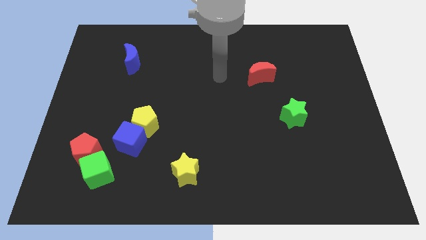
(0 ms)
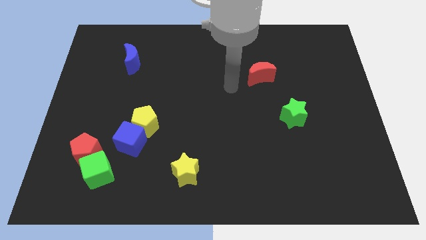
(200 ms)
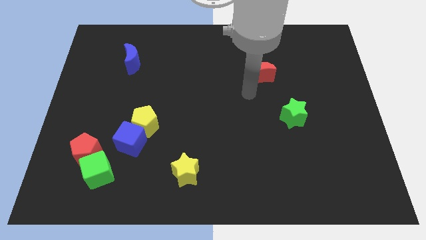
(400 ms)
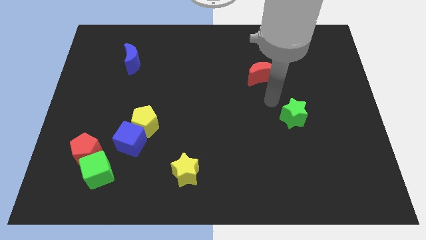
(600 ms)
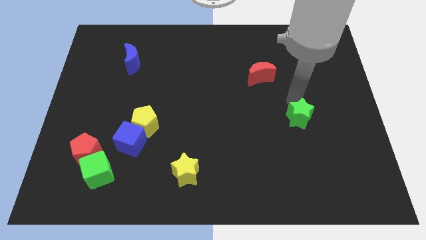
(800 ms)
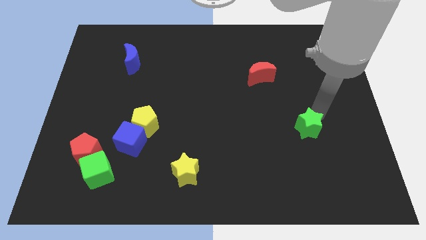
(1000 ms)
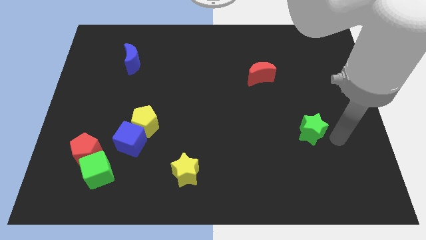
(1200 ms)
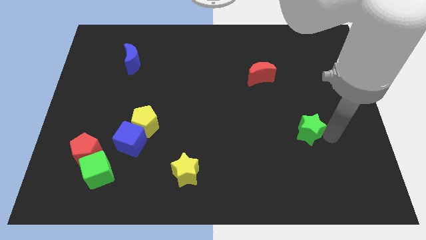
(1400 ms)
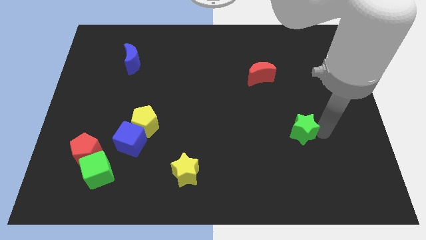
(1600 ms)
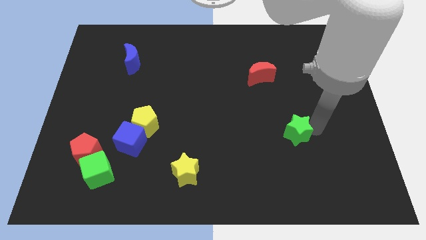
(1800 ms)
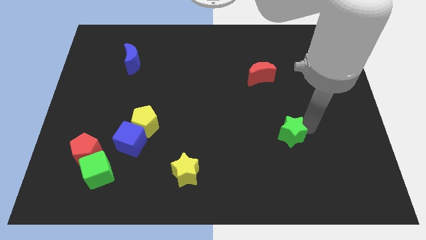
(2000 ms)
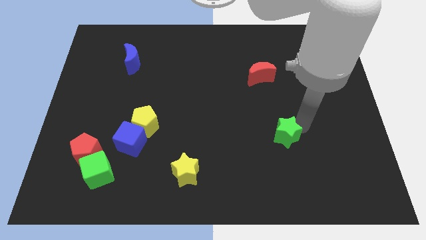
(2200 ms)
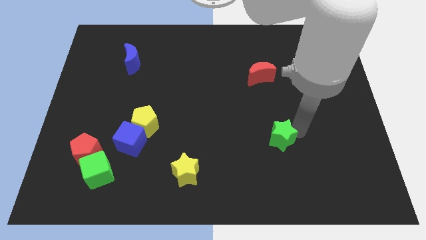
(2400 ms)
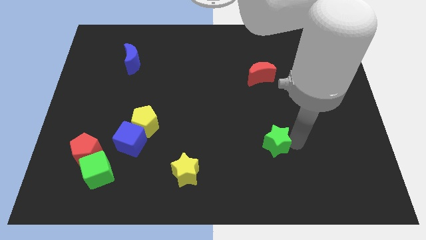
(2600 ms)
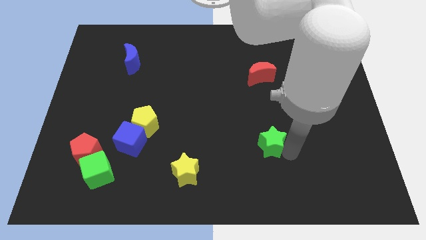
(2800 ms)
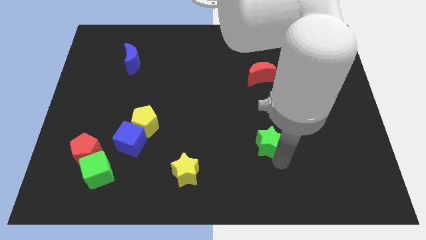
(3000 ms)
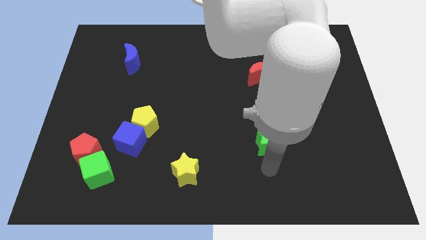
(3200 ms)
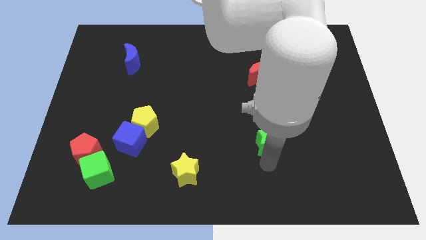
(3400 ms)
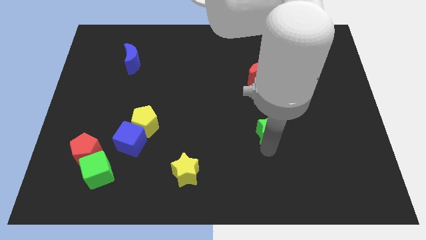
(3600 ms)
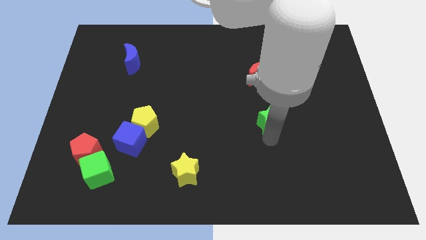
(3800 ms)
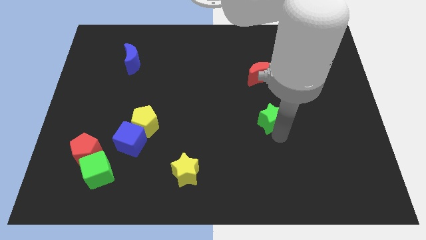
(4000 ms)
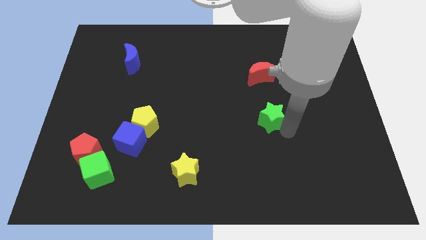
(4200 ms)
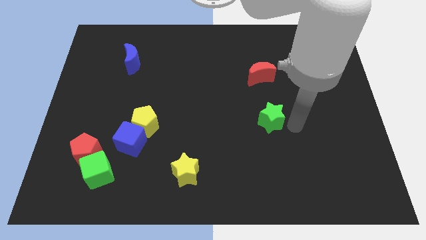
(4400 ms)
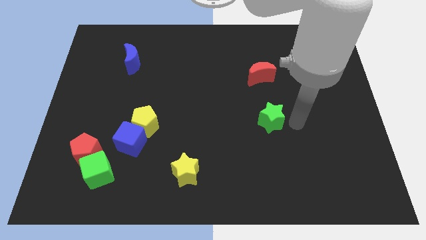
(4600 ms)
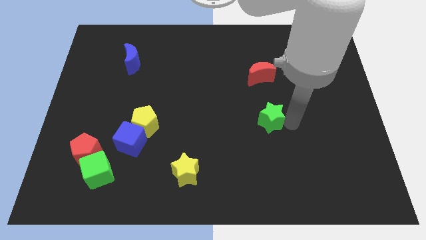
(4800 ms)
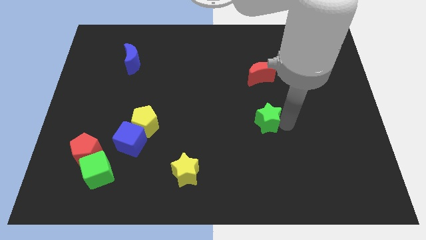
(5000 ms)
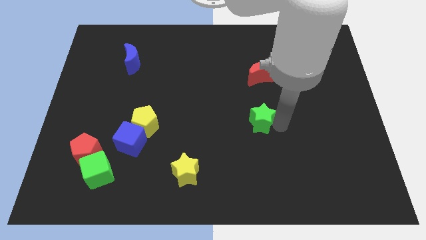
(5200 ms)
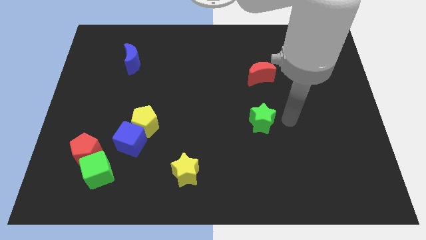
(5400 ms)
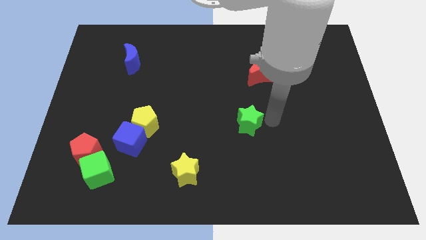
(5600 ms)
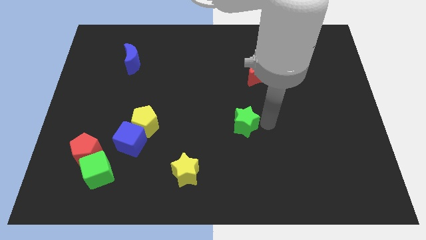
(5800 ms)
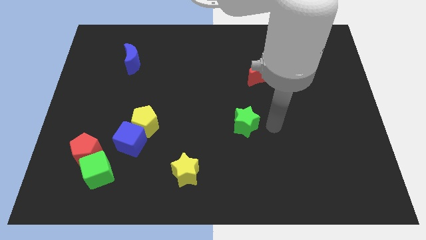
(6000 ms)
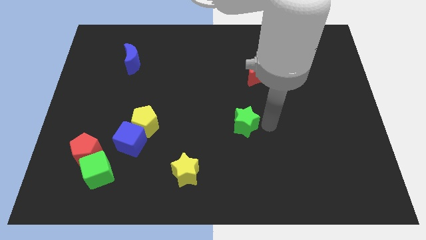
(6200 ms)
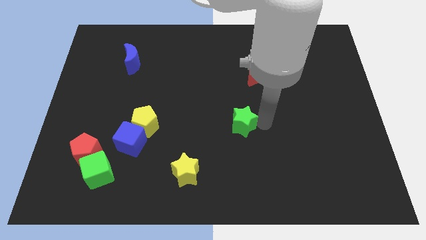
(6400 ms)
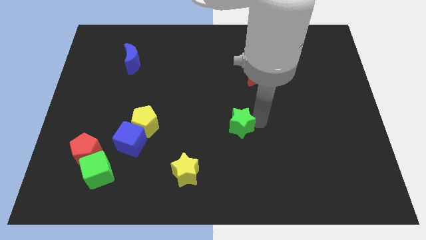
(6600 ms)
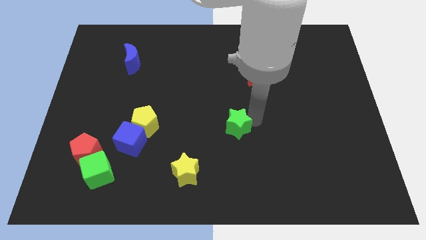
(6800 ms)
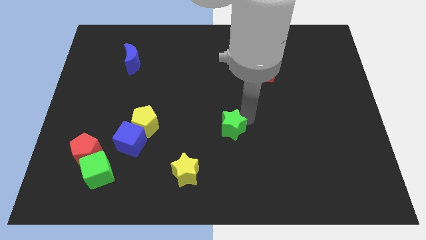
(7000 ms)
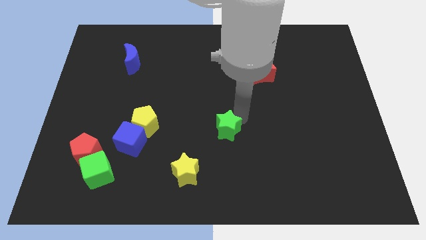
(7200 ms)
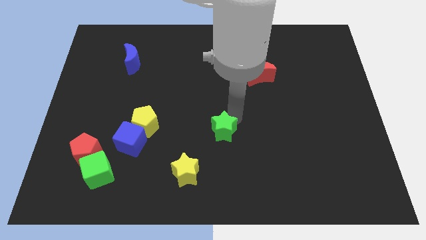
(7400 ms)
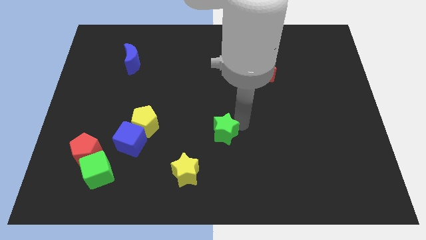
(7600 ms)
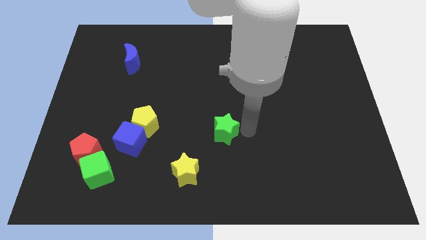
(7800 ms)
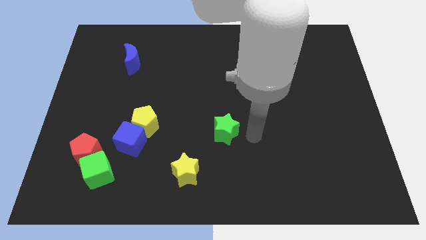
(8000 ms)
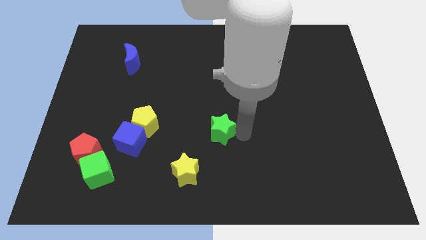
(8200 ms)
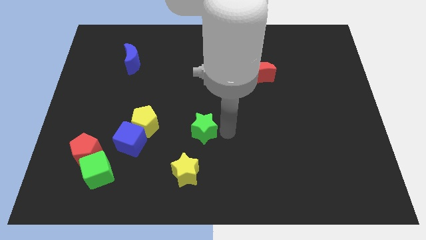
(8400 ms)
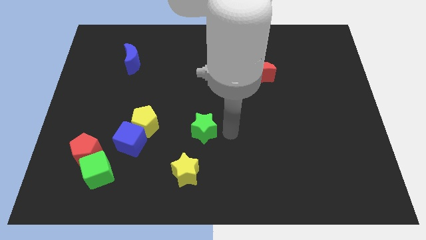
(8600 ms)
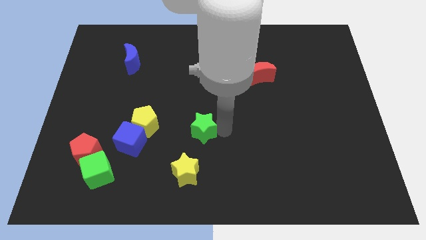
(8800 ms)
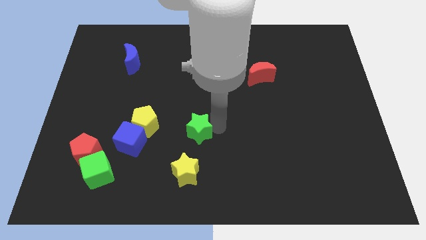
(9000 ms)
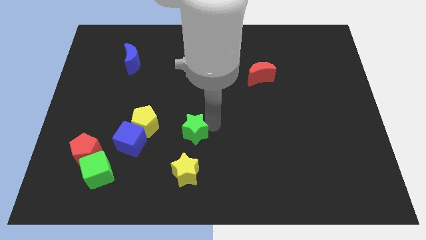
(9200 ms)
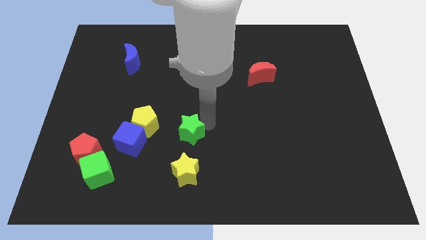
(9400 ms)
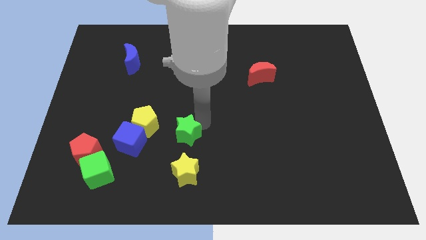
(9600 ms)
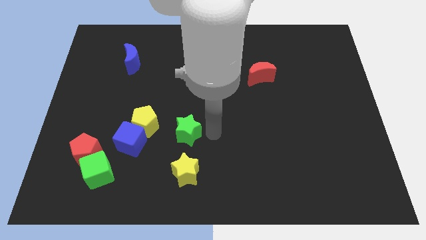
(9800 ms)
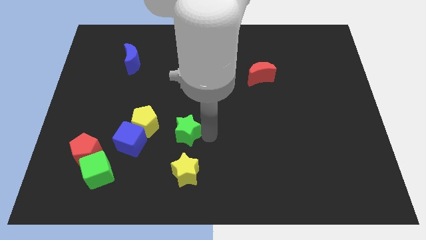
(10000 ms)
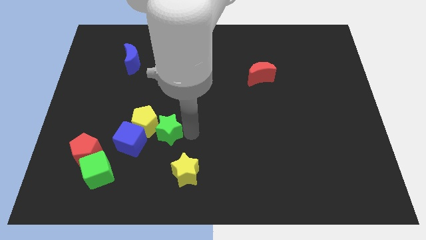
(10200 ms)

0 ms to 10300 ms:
move the green star close to the yellow pentagon

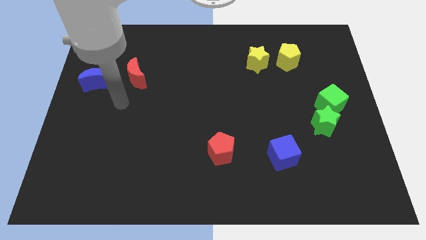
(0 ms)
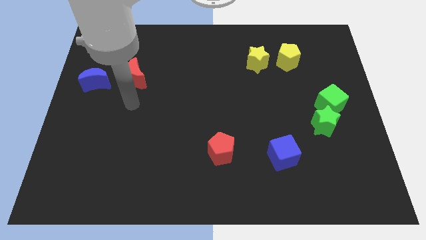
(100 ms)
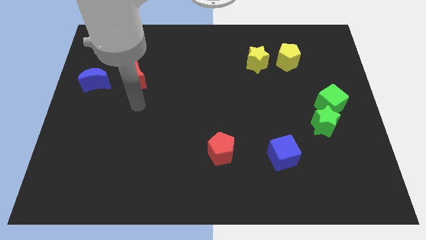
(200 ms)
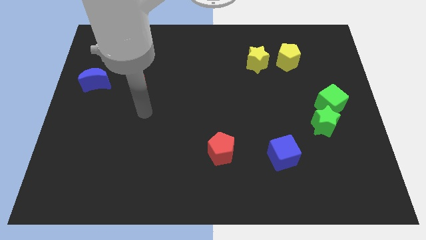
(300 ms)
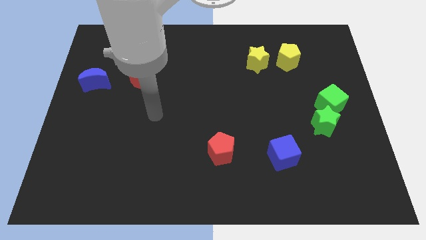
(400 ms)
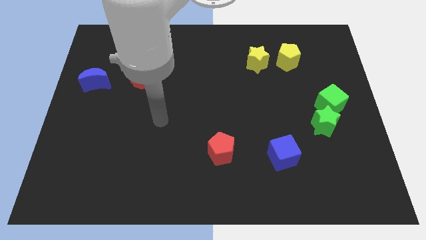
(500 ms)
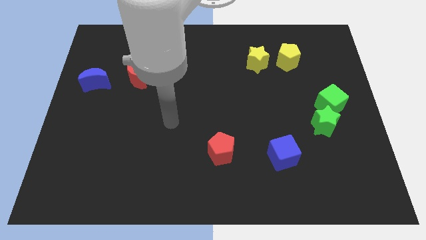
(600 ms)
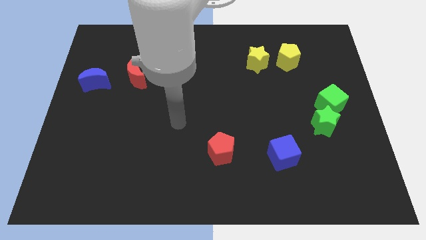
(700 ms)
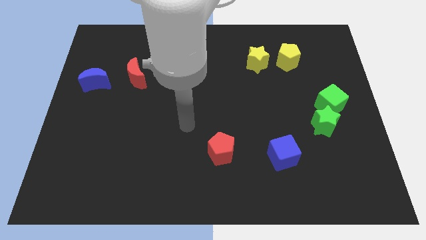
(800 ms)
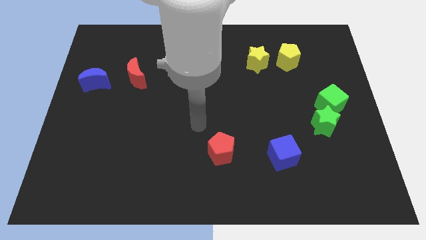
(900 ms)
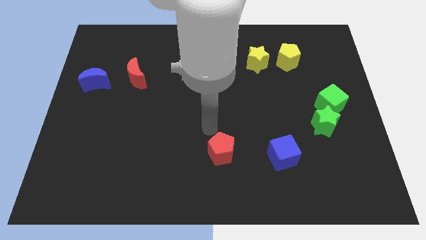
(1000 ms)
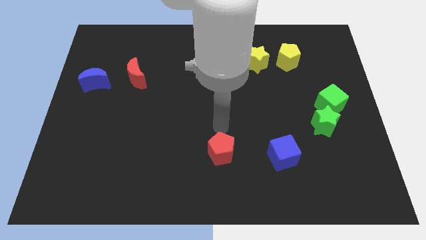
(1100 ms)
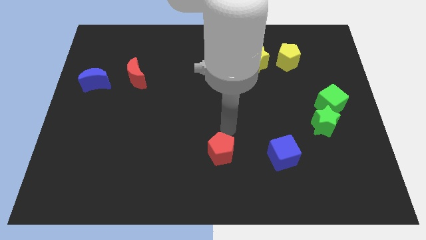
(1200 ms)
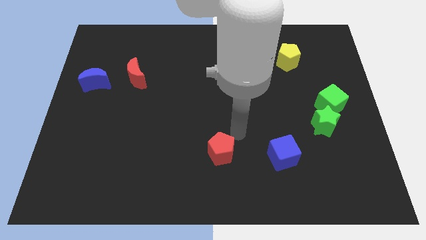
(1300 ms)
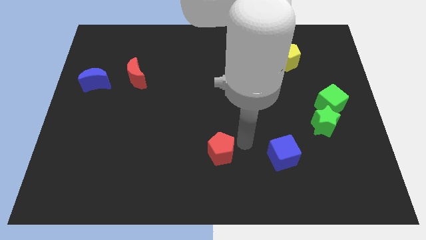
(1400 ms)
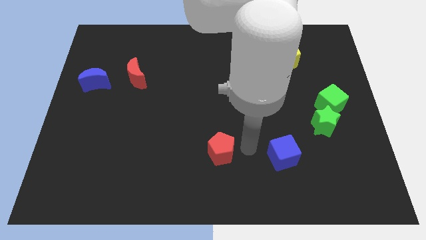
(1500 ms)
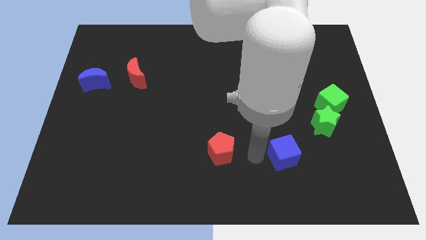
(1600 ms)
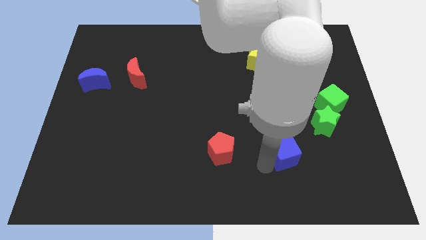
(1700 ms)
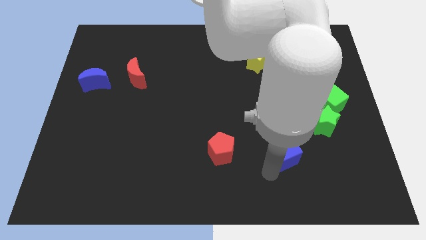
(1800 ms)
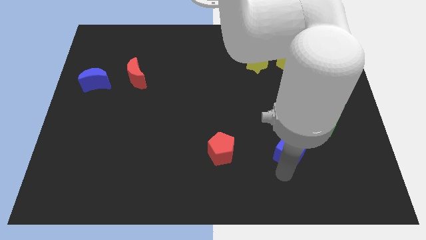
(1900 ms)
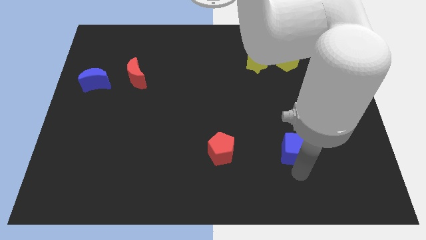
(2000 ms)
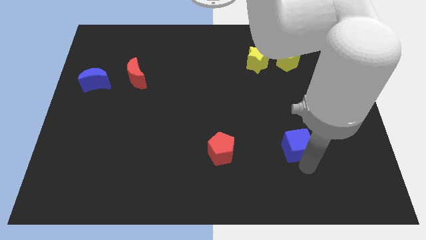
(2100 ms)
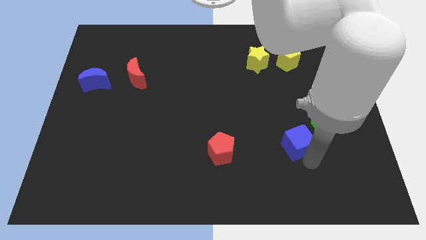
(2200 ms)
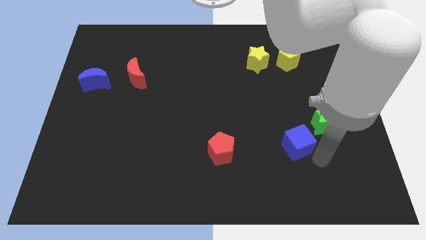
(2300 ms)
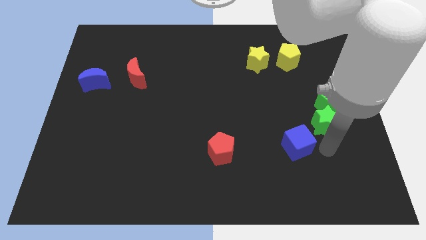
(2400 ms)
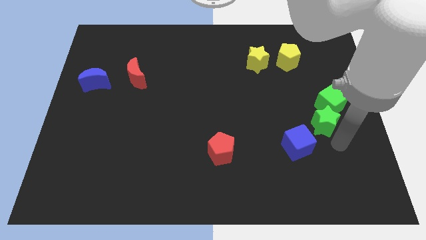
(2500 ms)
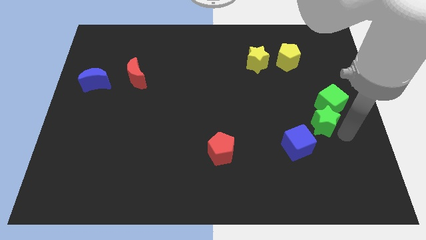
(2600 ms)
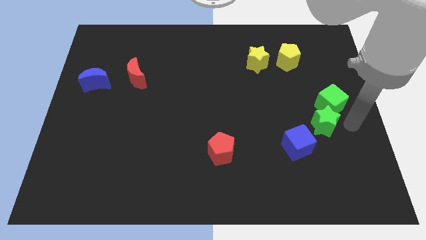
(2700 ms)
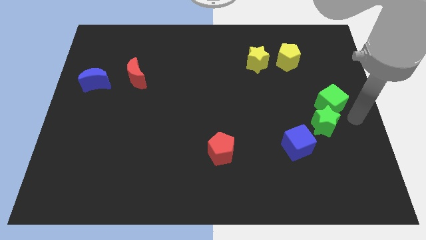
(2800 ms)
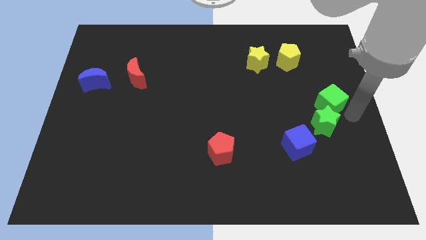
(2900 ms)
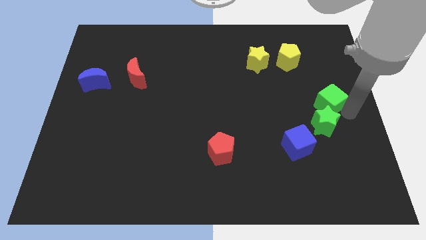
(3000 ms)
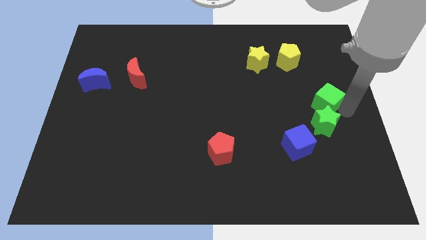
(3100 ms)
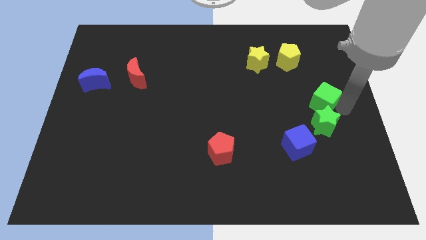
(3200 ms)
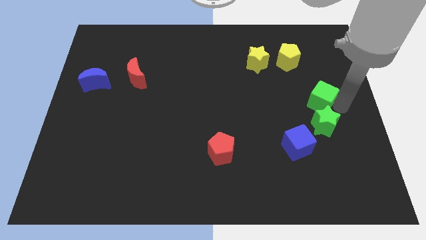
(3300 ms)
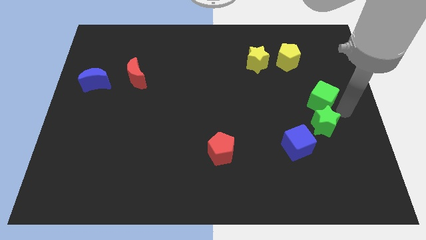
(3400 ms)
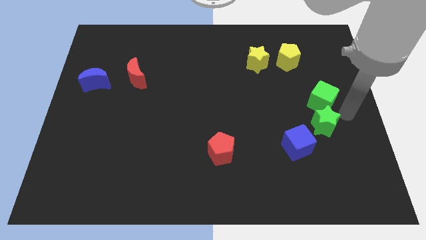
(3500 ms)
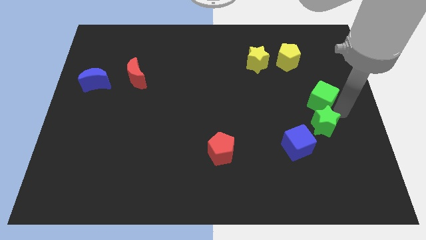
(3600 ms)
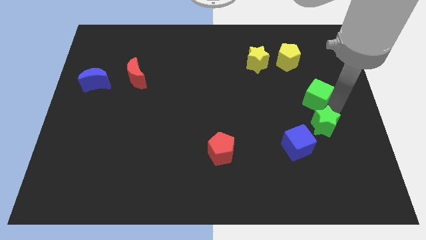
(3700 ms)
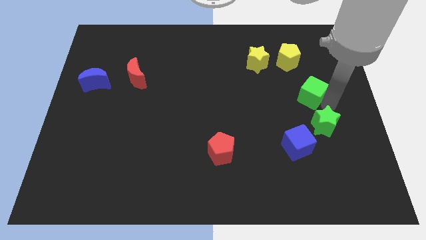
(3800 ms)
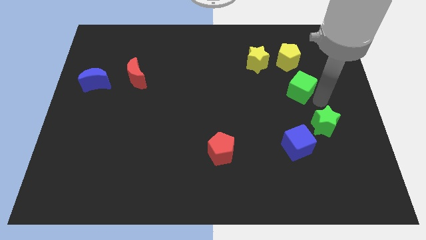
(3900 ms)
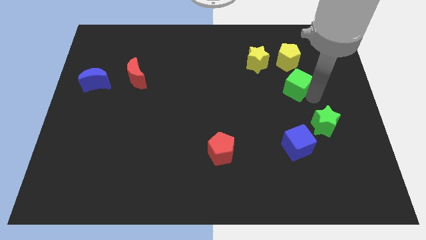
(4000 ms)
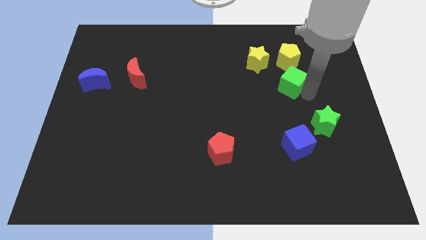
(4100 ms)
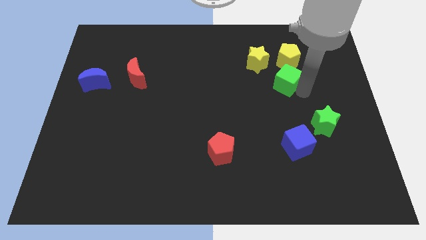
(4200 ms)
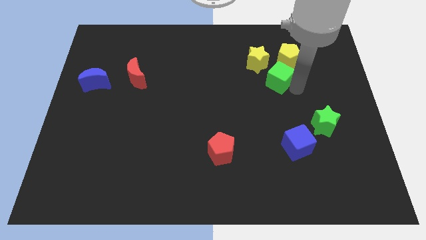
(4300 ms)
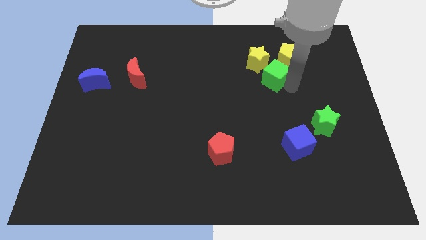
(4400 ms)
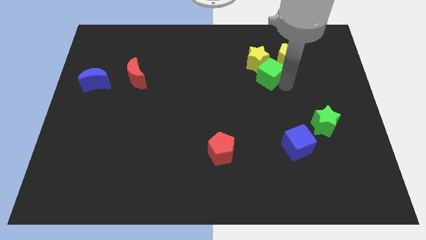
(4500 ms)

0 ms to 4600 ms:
put the green cube next to the yellow star
